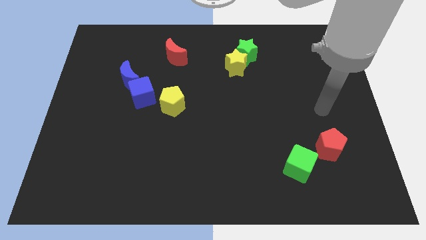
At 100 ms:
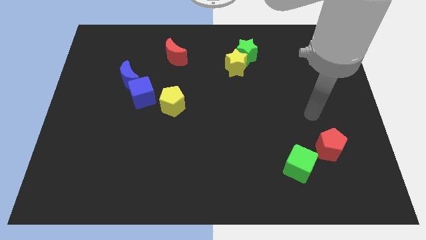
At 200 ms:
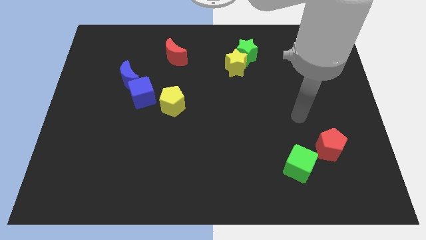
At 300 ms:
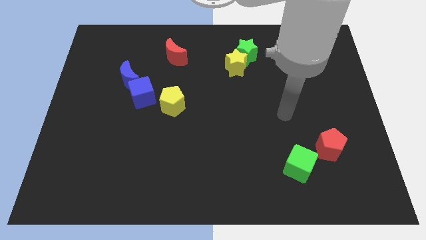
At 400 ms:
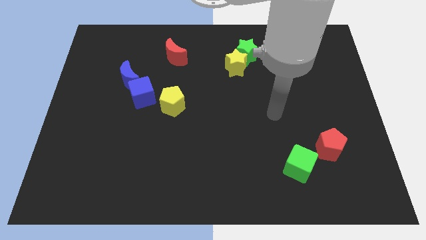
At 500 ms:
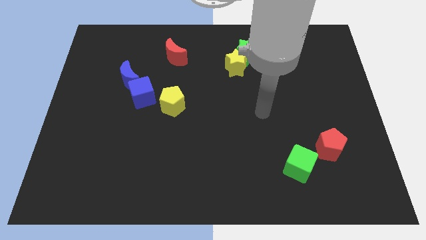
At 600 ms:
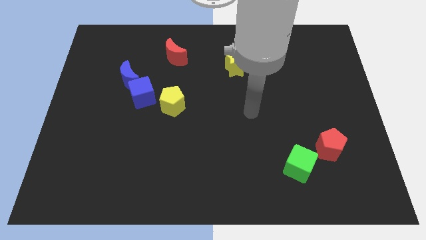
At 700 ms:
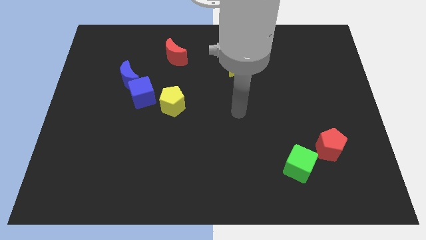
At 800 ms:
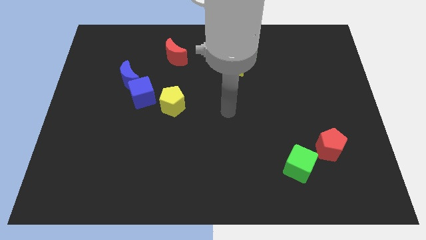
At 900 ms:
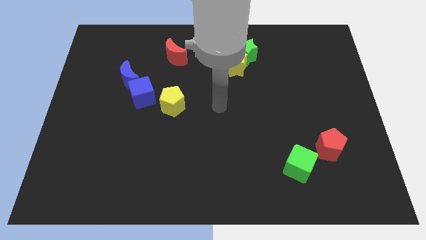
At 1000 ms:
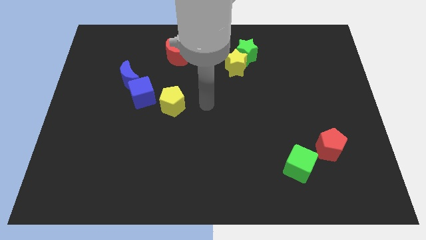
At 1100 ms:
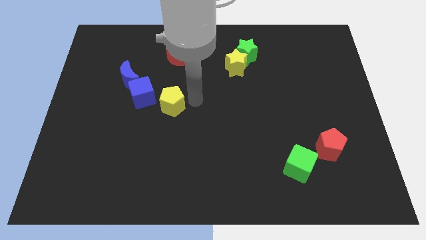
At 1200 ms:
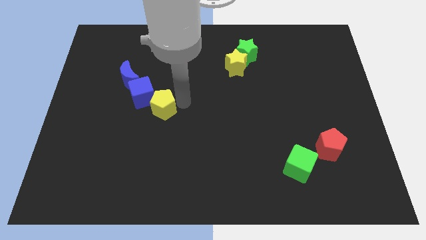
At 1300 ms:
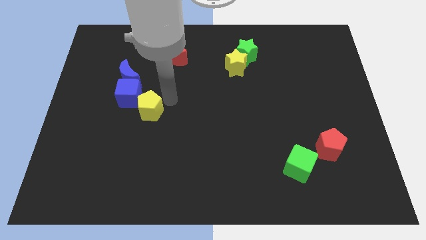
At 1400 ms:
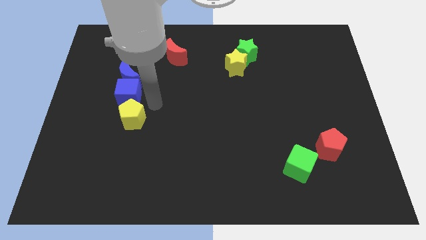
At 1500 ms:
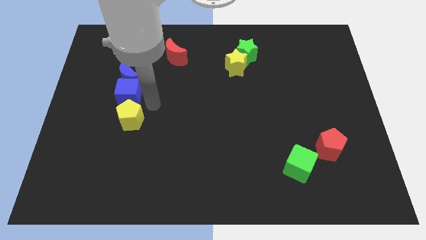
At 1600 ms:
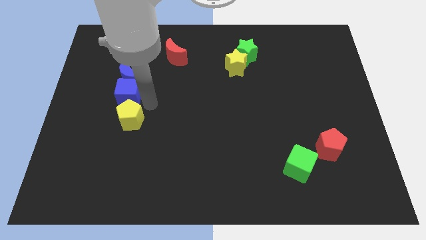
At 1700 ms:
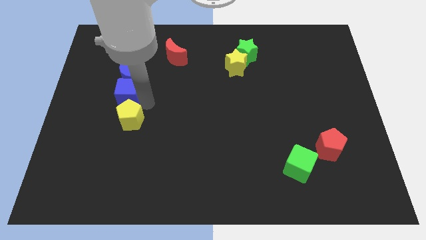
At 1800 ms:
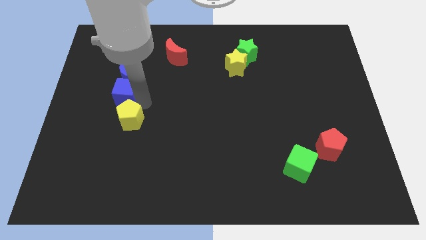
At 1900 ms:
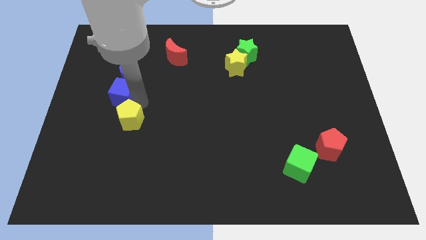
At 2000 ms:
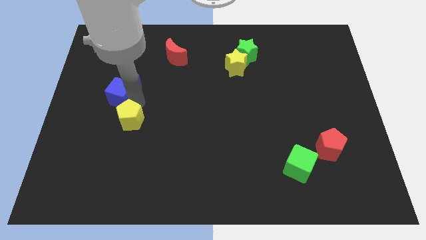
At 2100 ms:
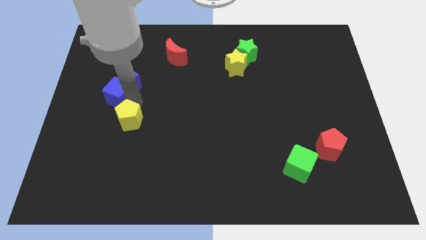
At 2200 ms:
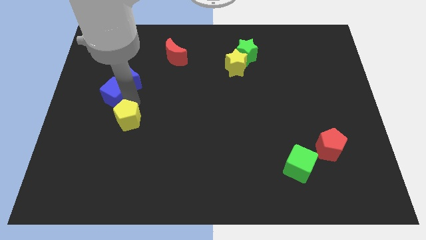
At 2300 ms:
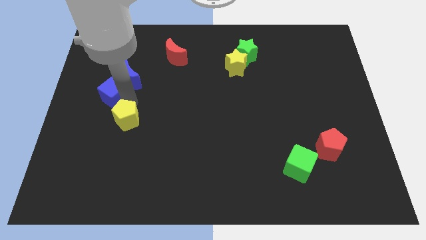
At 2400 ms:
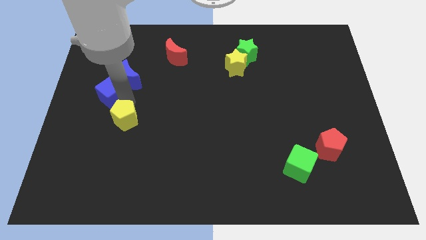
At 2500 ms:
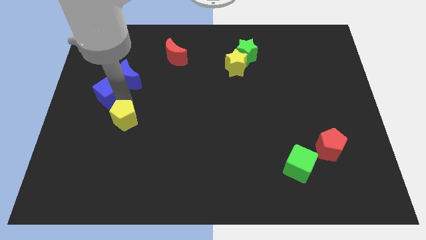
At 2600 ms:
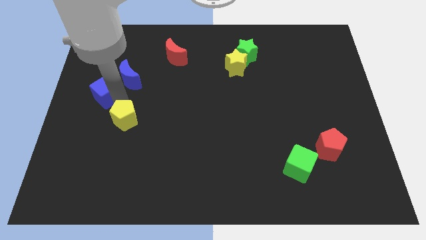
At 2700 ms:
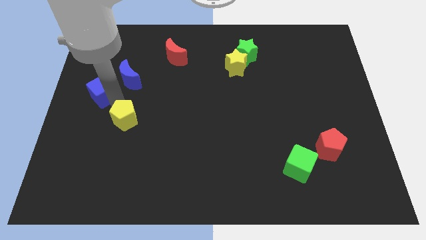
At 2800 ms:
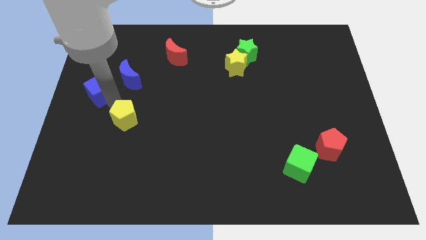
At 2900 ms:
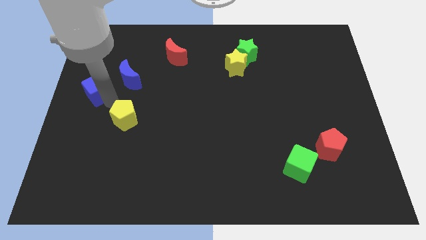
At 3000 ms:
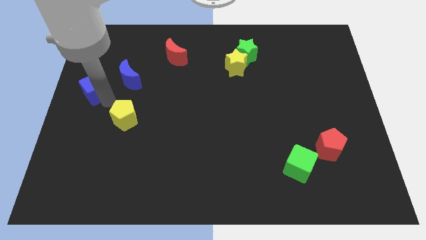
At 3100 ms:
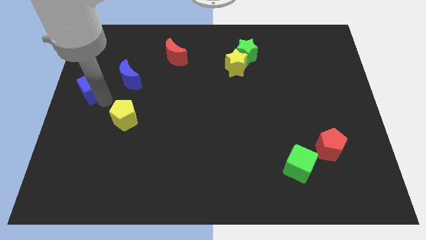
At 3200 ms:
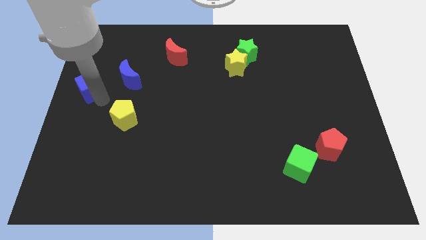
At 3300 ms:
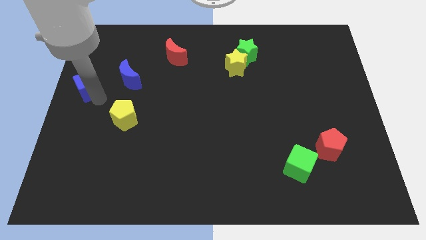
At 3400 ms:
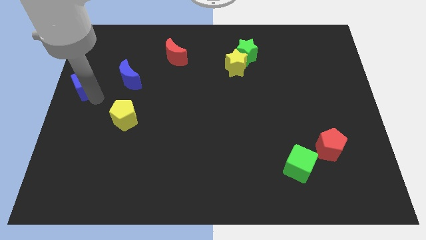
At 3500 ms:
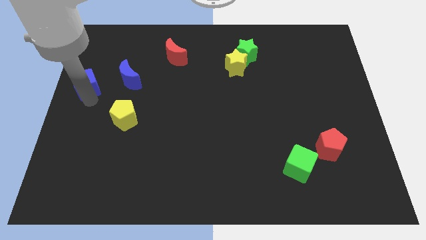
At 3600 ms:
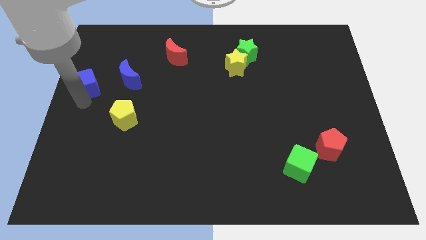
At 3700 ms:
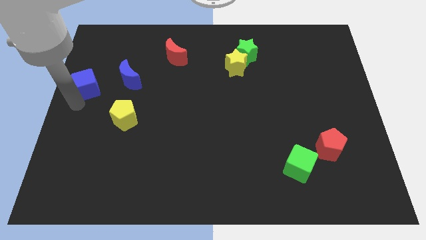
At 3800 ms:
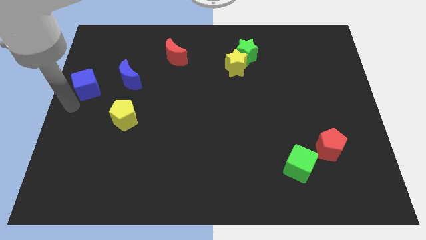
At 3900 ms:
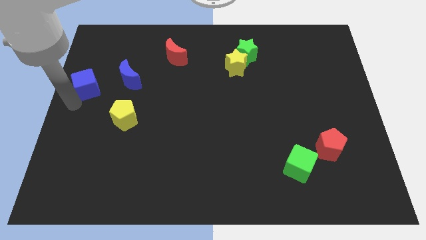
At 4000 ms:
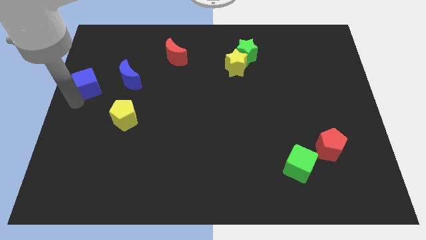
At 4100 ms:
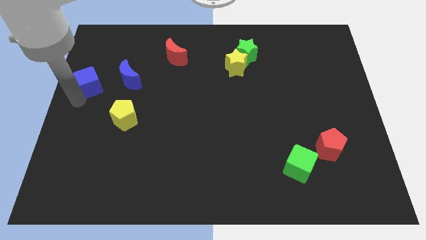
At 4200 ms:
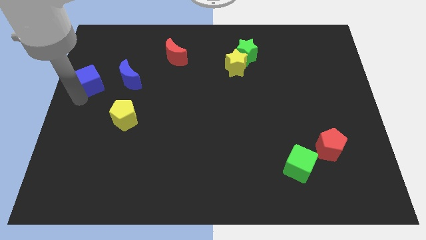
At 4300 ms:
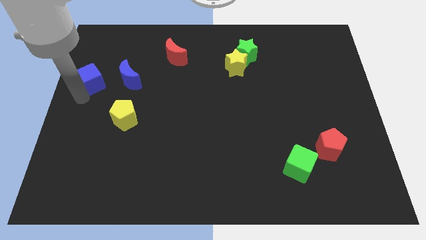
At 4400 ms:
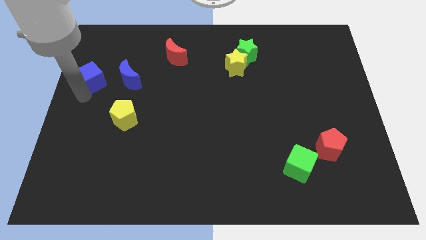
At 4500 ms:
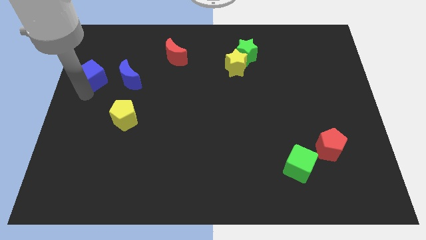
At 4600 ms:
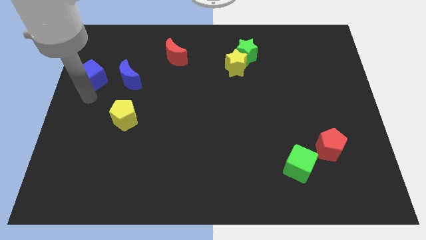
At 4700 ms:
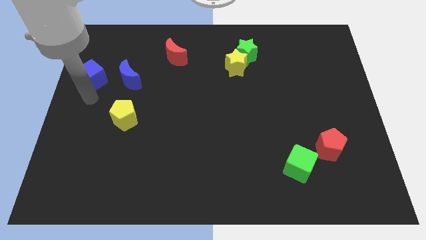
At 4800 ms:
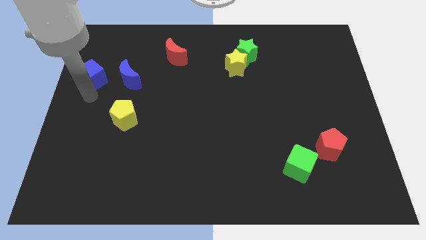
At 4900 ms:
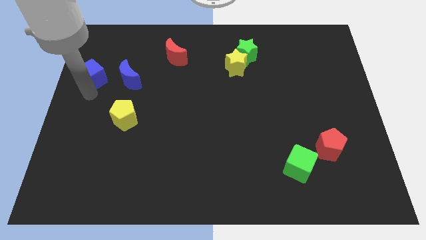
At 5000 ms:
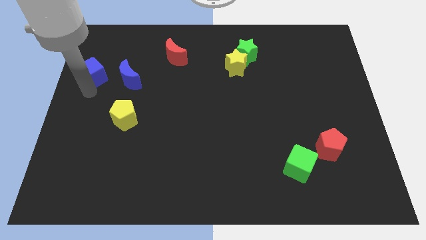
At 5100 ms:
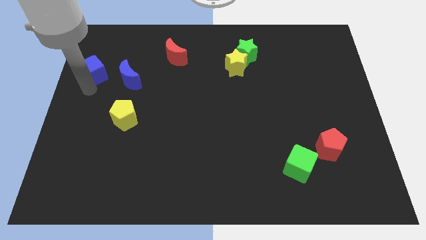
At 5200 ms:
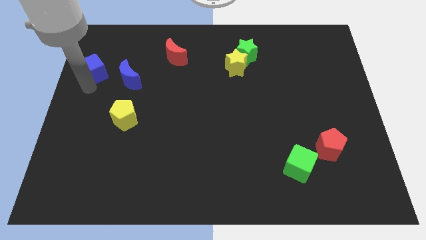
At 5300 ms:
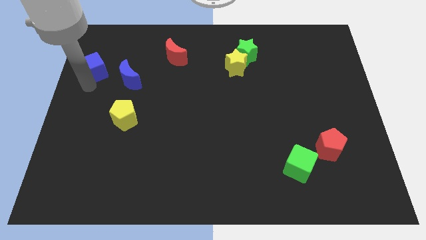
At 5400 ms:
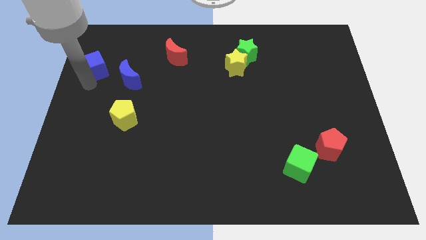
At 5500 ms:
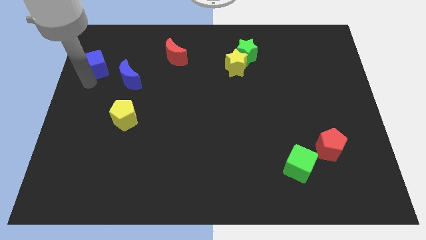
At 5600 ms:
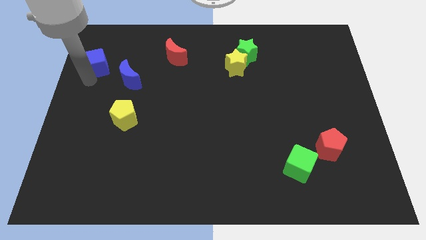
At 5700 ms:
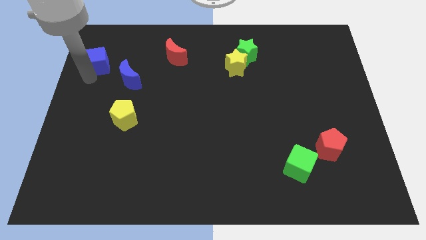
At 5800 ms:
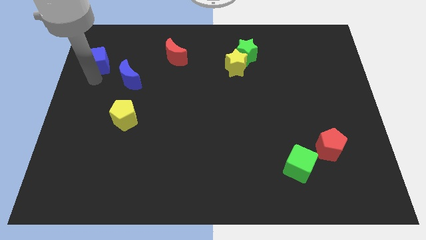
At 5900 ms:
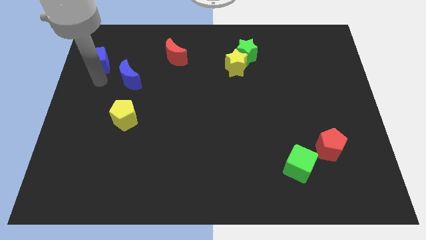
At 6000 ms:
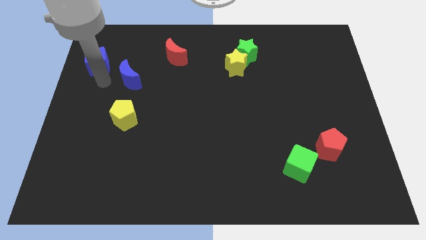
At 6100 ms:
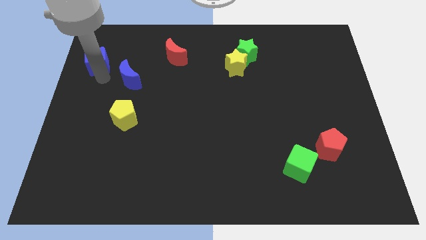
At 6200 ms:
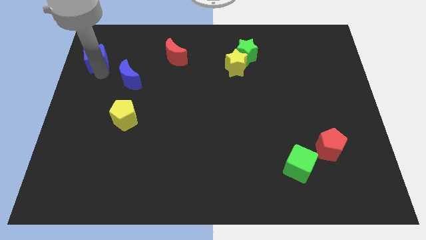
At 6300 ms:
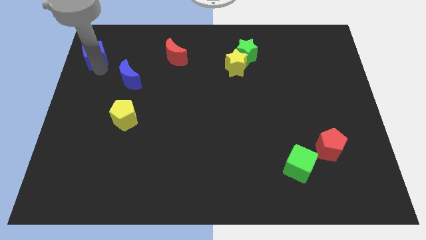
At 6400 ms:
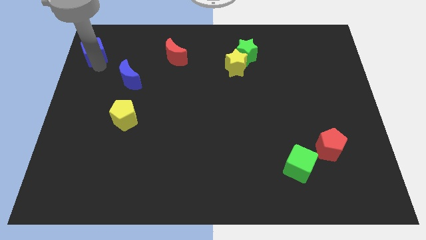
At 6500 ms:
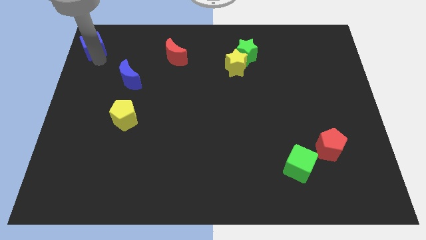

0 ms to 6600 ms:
slide the blue cube to the top left corner
